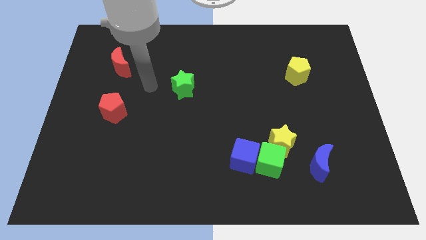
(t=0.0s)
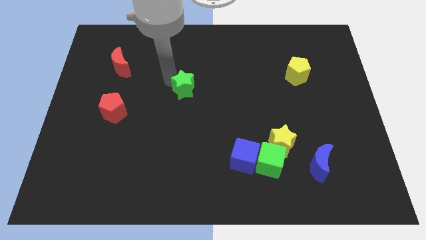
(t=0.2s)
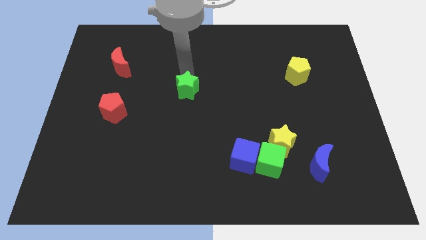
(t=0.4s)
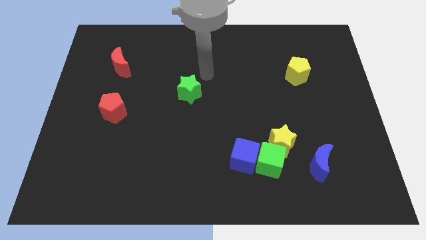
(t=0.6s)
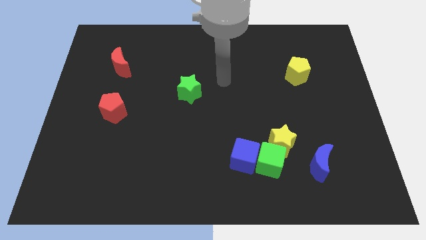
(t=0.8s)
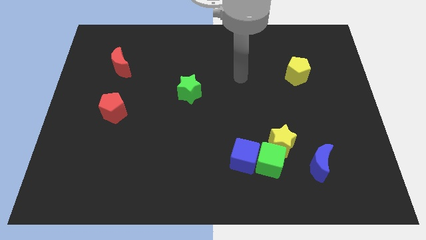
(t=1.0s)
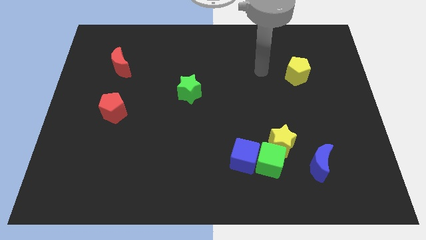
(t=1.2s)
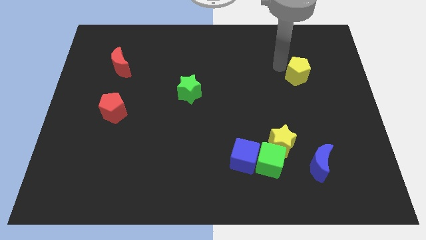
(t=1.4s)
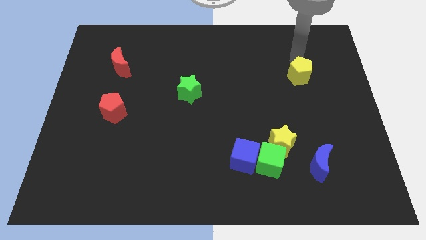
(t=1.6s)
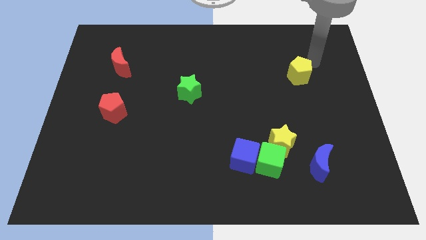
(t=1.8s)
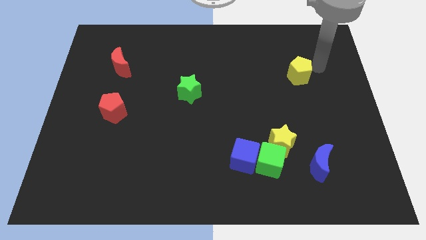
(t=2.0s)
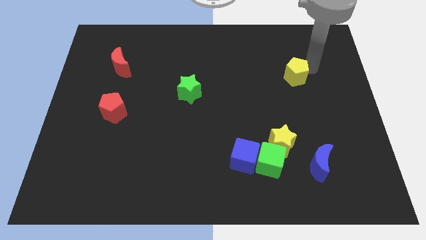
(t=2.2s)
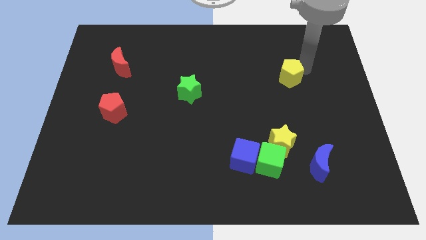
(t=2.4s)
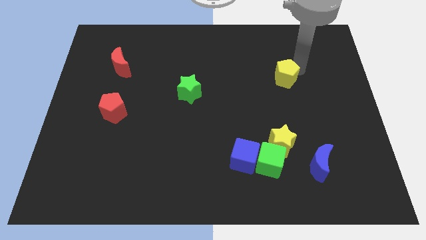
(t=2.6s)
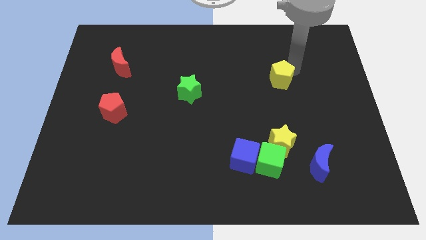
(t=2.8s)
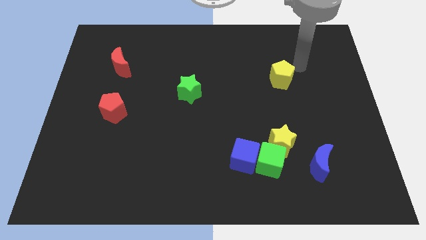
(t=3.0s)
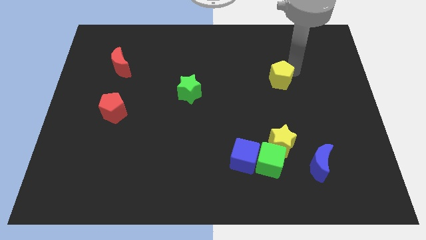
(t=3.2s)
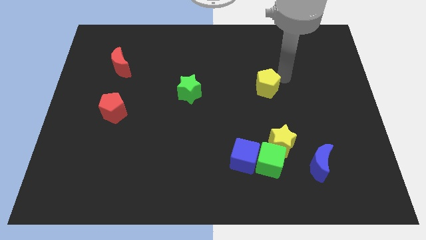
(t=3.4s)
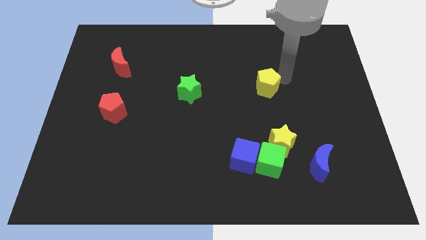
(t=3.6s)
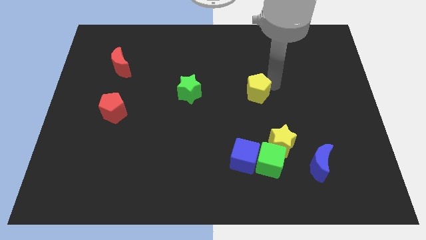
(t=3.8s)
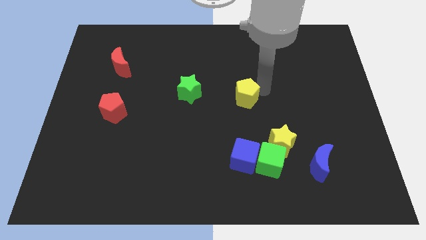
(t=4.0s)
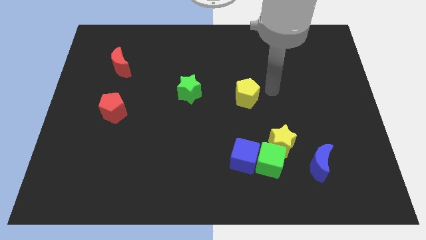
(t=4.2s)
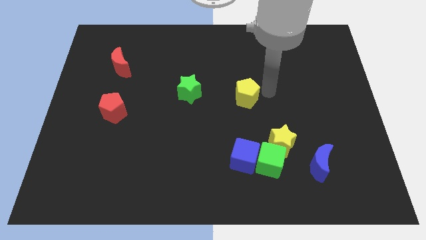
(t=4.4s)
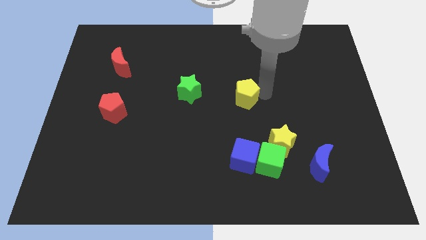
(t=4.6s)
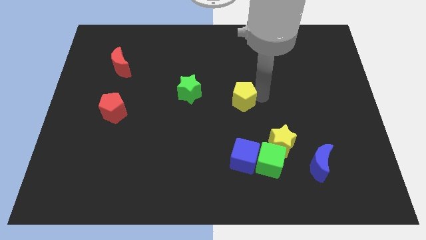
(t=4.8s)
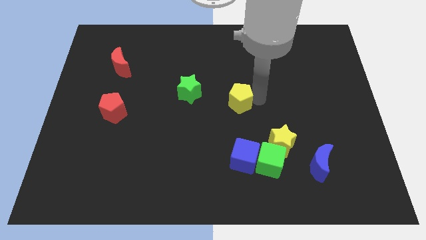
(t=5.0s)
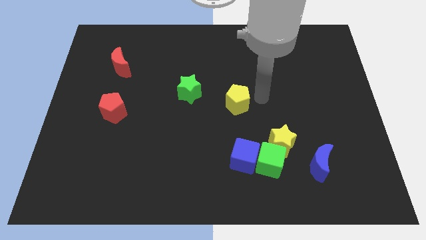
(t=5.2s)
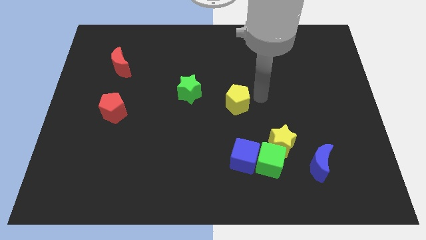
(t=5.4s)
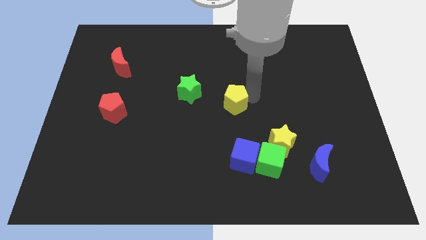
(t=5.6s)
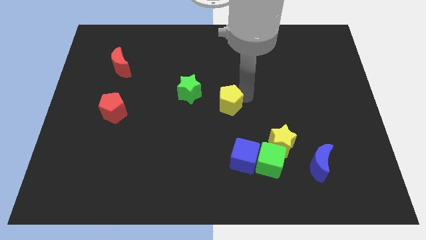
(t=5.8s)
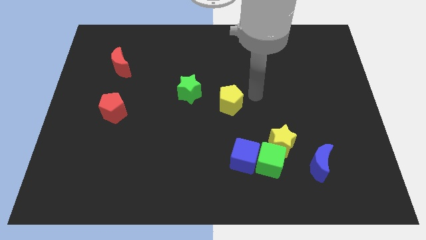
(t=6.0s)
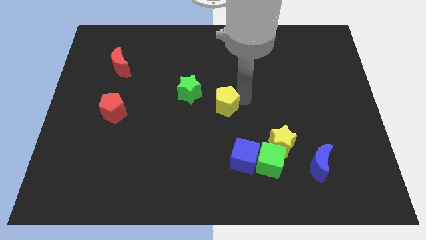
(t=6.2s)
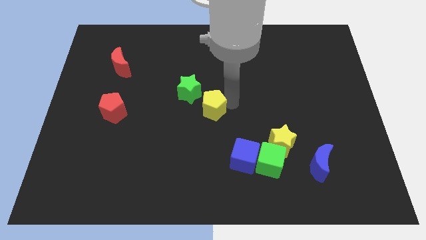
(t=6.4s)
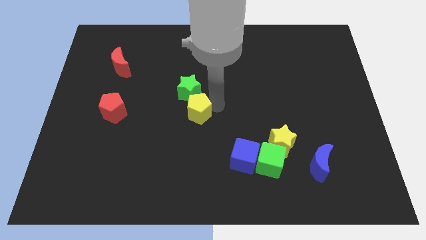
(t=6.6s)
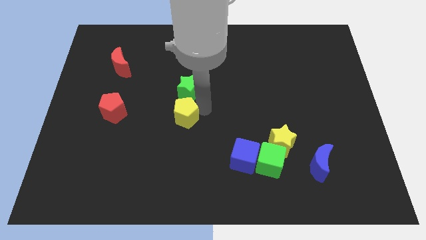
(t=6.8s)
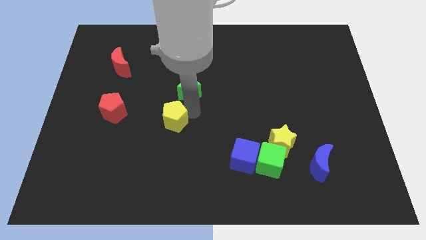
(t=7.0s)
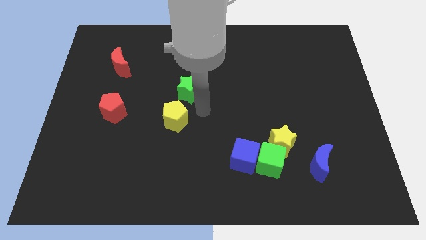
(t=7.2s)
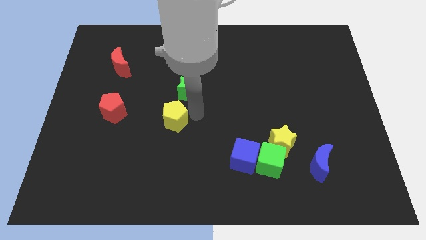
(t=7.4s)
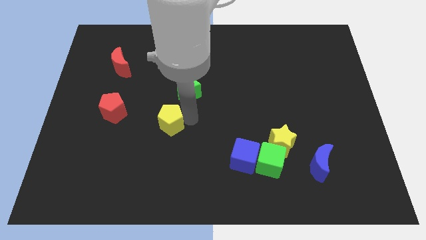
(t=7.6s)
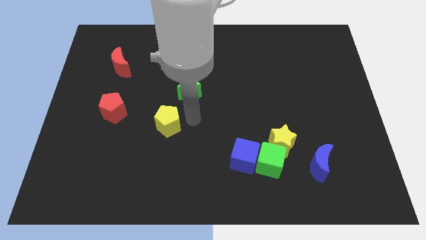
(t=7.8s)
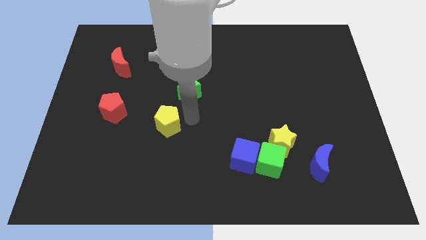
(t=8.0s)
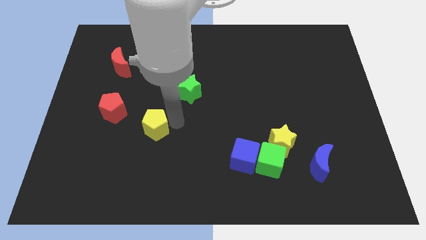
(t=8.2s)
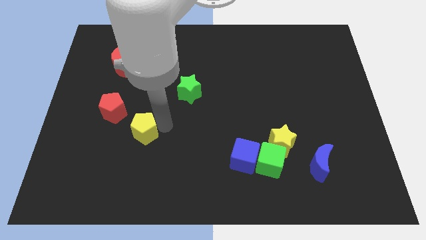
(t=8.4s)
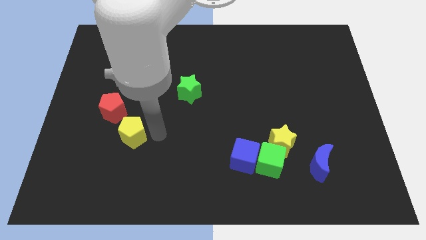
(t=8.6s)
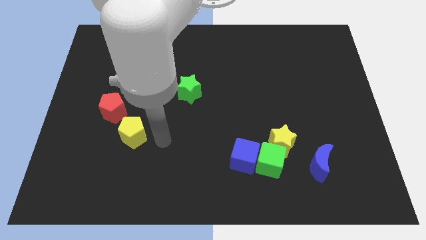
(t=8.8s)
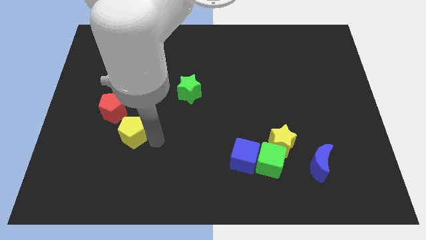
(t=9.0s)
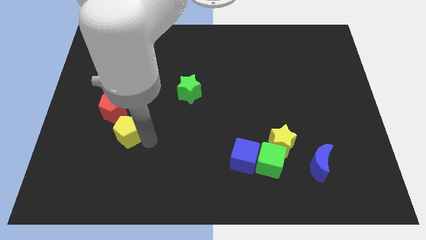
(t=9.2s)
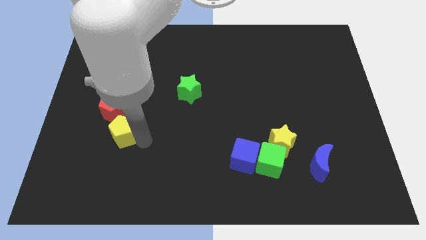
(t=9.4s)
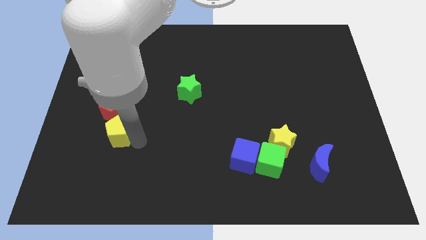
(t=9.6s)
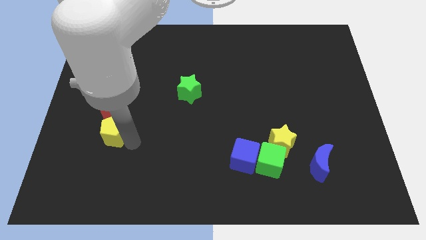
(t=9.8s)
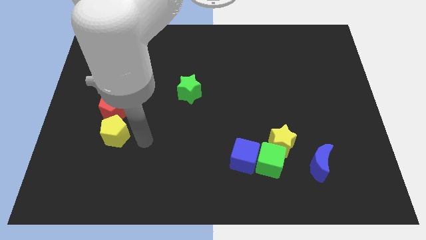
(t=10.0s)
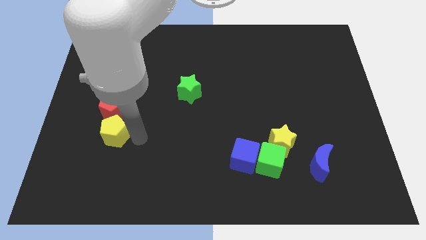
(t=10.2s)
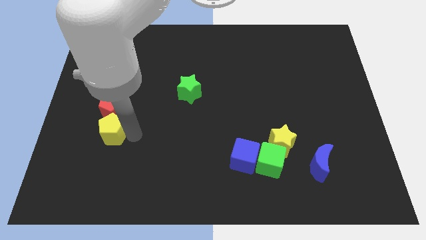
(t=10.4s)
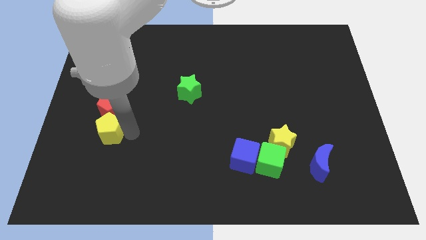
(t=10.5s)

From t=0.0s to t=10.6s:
move the yellow pentagon diagonally down and to the left of the red pentagon

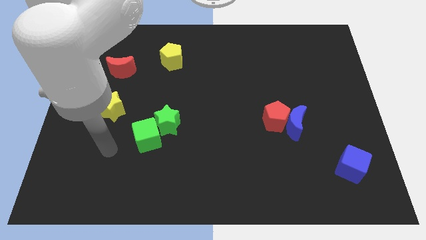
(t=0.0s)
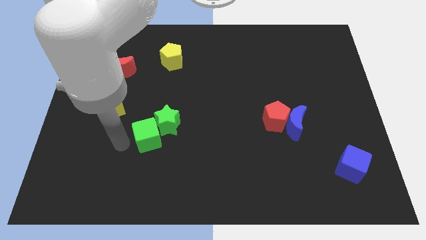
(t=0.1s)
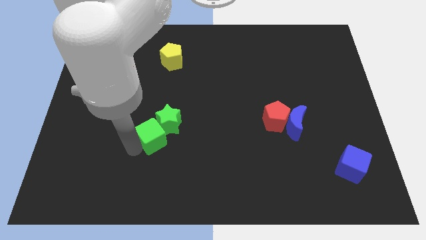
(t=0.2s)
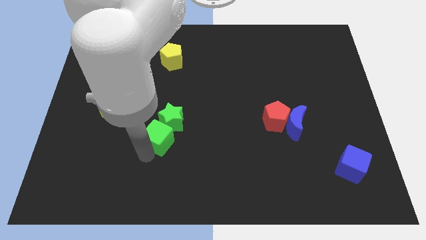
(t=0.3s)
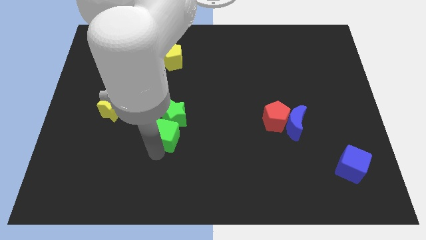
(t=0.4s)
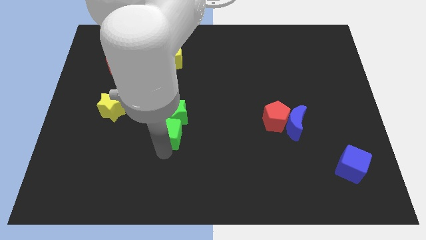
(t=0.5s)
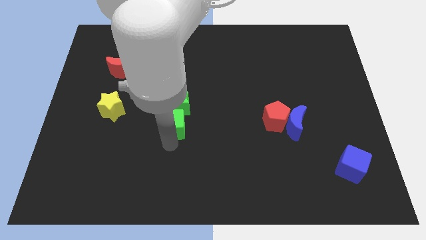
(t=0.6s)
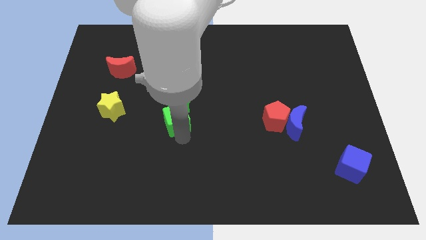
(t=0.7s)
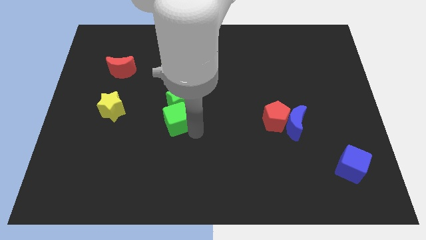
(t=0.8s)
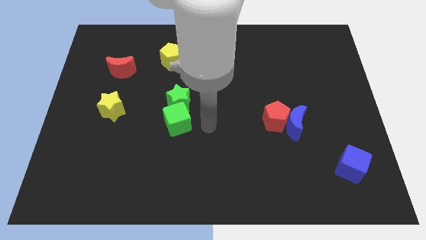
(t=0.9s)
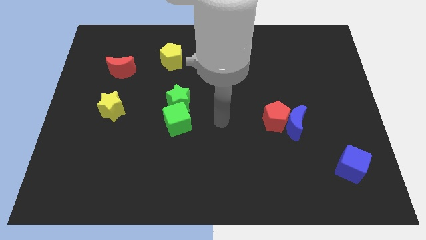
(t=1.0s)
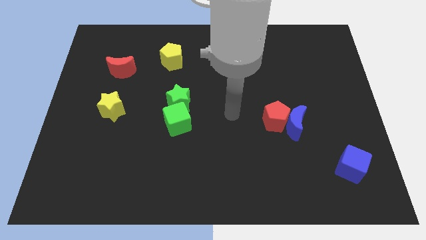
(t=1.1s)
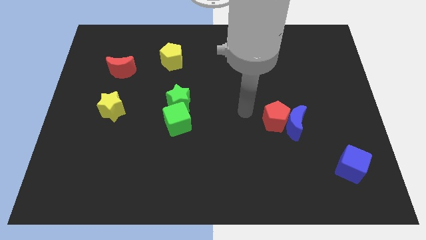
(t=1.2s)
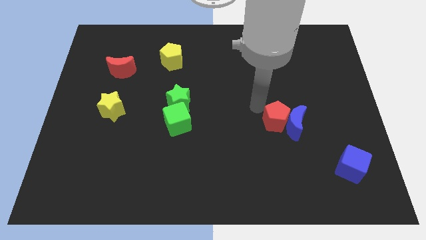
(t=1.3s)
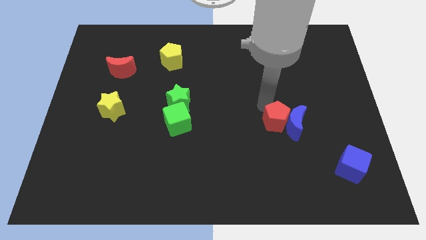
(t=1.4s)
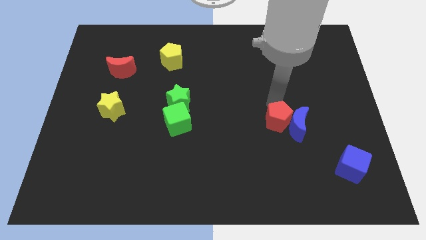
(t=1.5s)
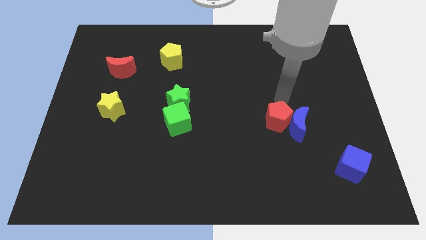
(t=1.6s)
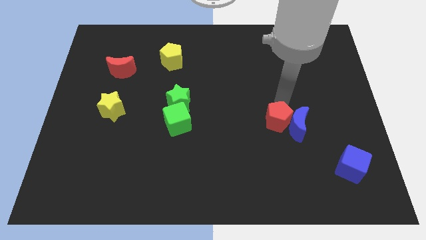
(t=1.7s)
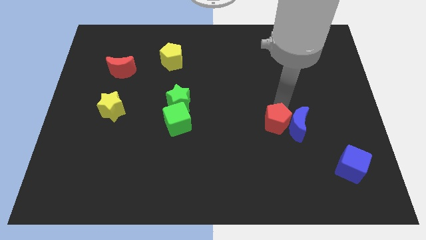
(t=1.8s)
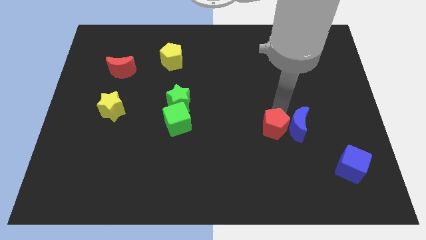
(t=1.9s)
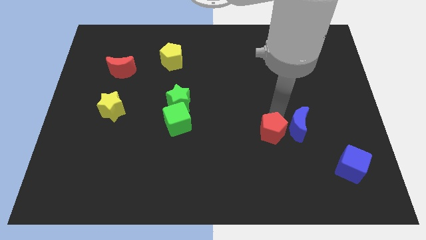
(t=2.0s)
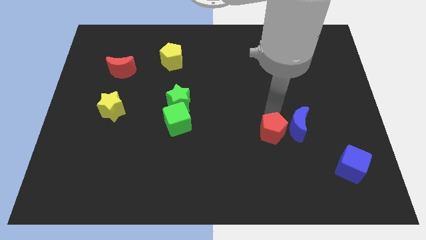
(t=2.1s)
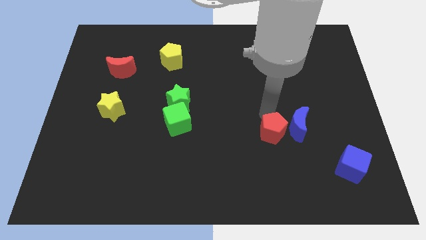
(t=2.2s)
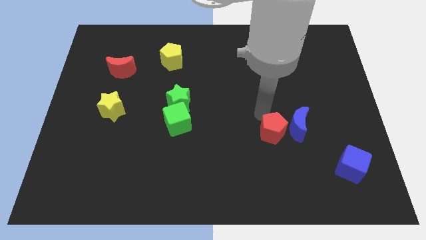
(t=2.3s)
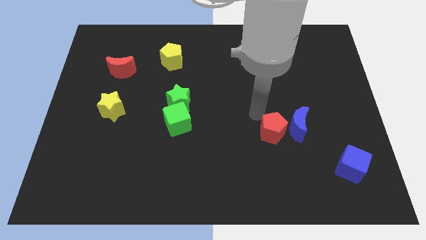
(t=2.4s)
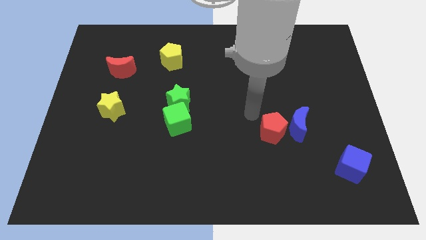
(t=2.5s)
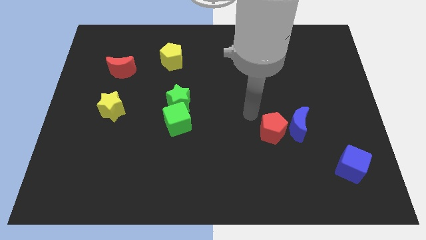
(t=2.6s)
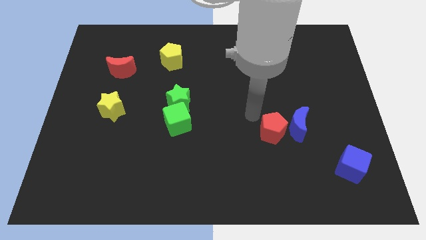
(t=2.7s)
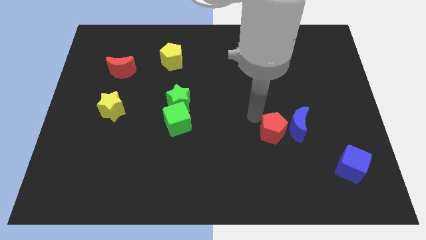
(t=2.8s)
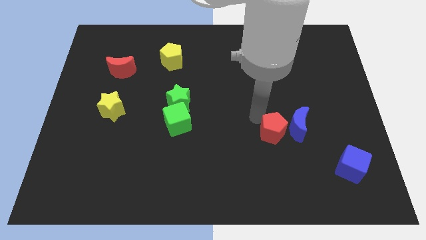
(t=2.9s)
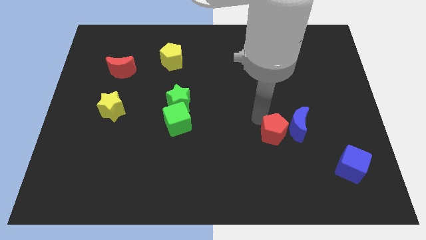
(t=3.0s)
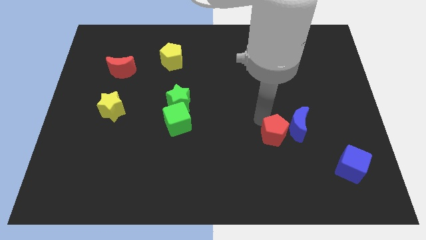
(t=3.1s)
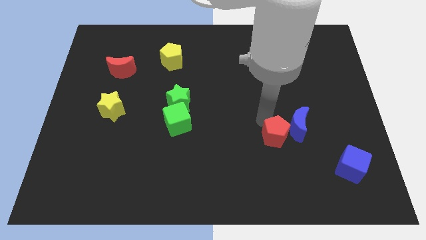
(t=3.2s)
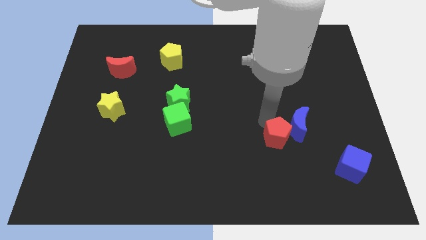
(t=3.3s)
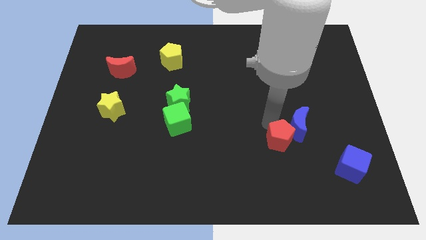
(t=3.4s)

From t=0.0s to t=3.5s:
put the red pentagon to the bottom of the blue moon
